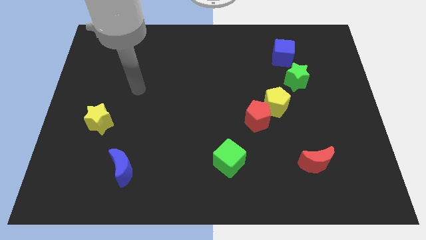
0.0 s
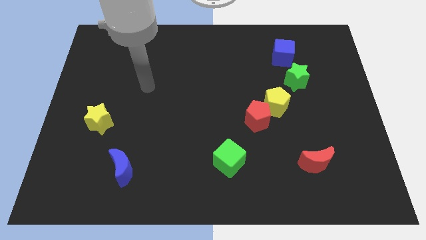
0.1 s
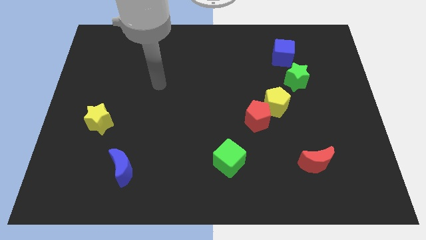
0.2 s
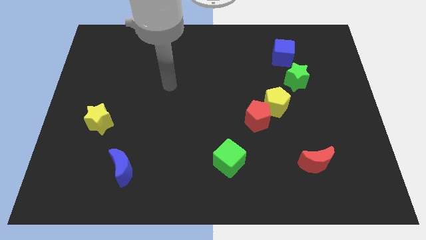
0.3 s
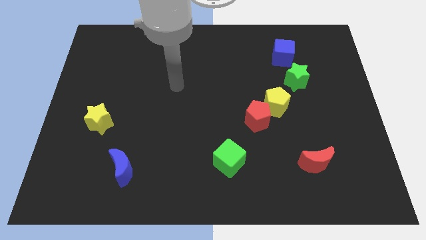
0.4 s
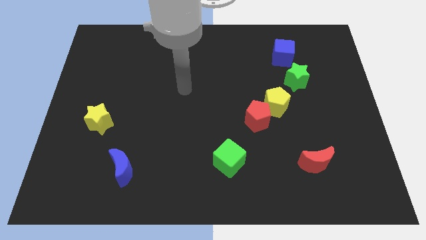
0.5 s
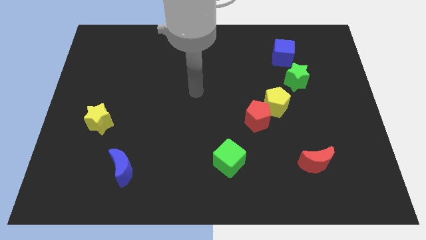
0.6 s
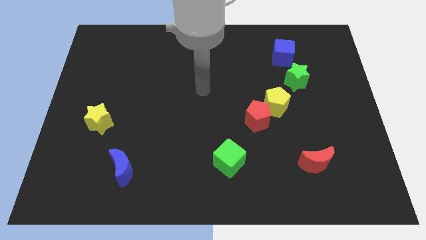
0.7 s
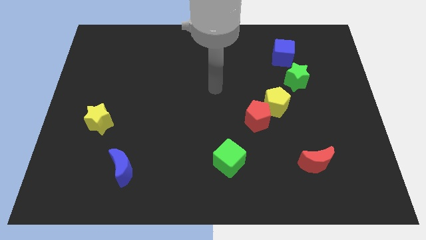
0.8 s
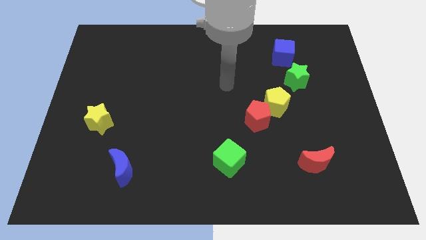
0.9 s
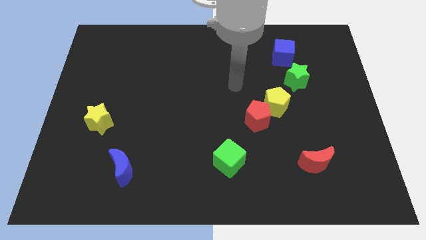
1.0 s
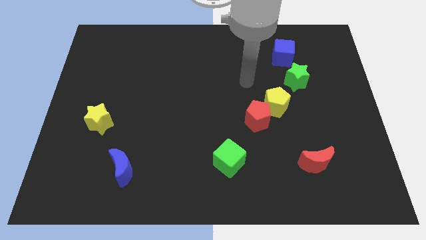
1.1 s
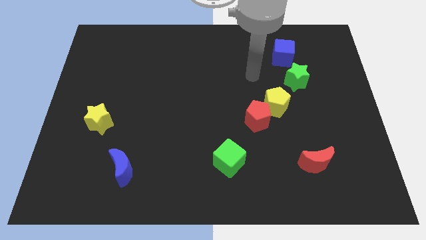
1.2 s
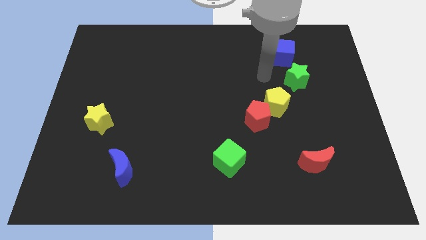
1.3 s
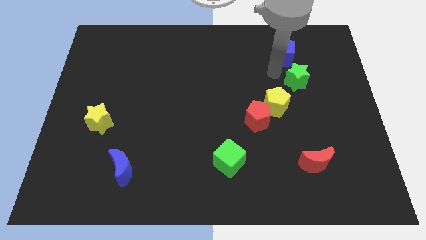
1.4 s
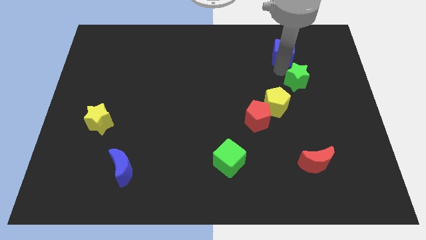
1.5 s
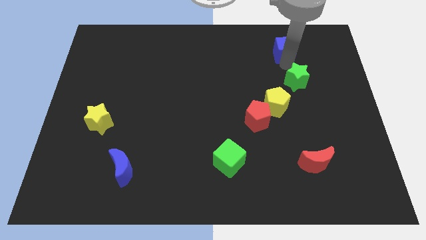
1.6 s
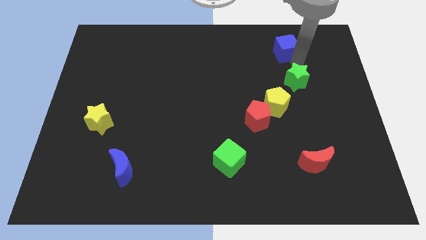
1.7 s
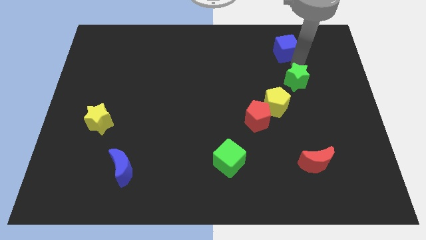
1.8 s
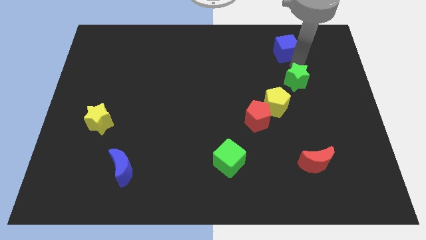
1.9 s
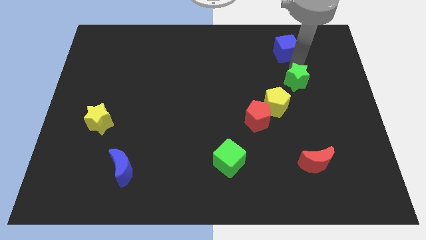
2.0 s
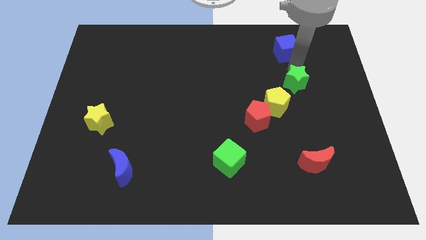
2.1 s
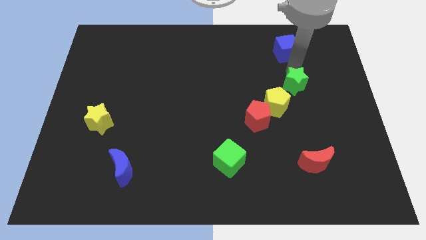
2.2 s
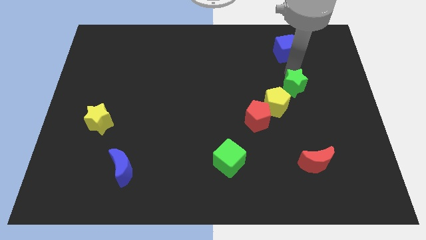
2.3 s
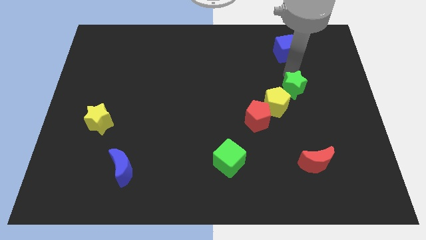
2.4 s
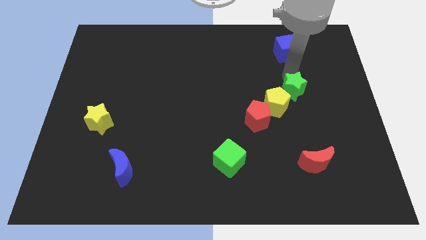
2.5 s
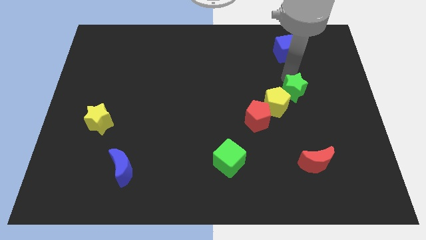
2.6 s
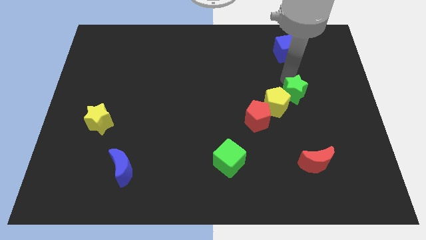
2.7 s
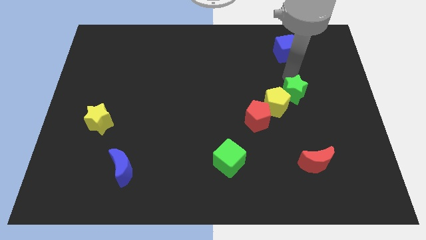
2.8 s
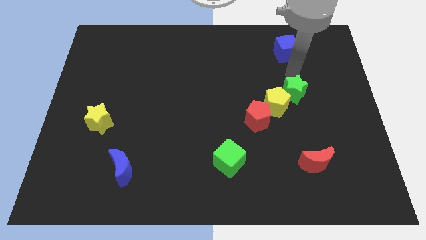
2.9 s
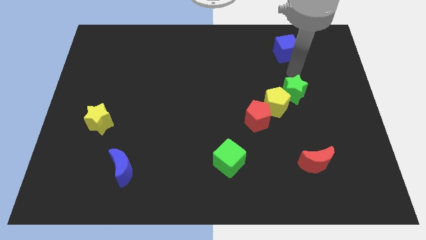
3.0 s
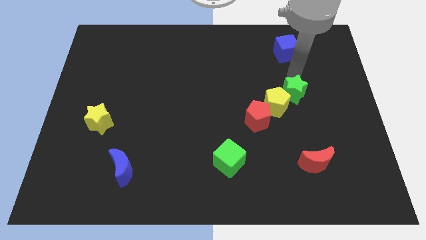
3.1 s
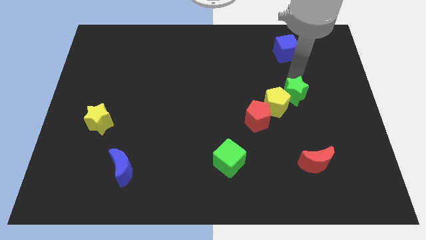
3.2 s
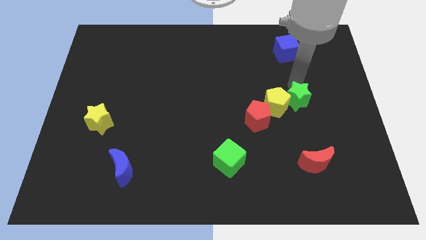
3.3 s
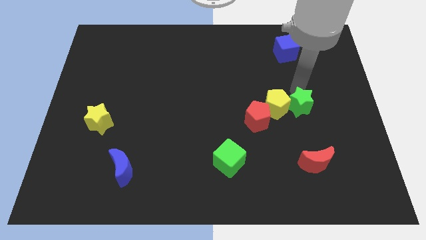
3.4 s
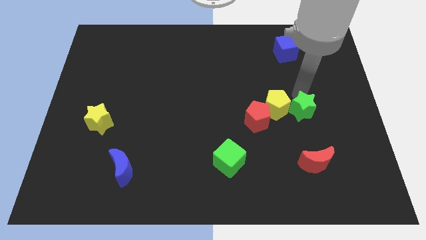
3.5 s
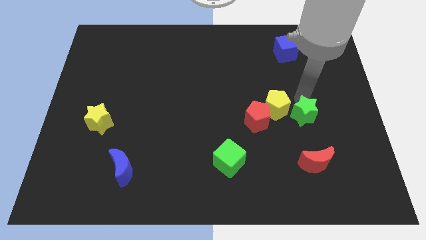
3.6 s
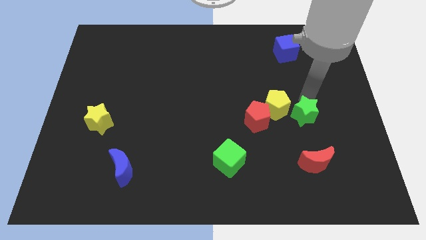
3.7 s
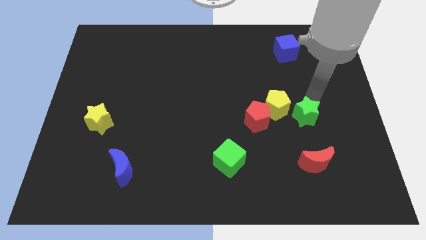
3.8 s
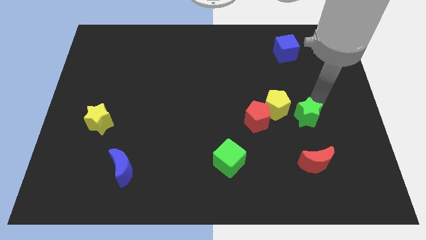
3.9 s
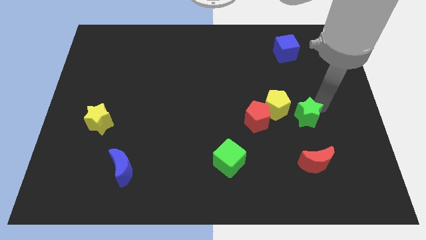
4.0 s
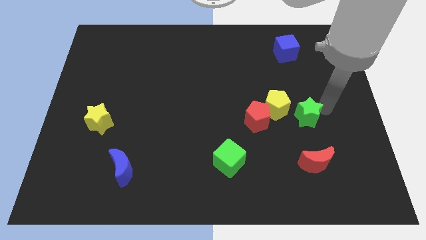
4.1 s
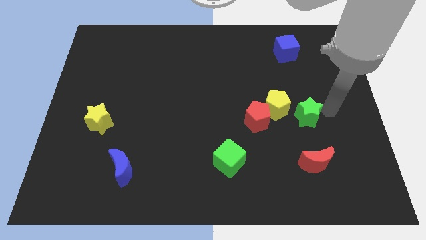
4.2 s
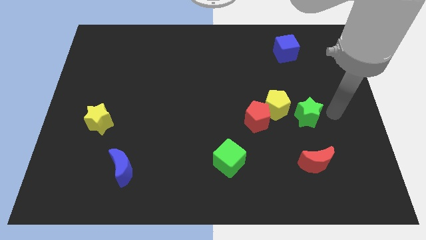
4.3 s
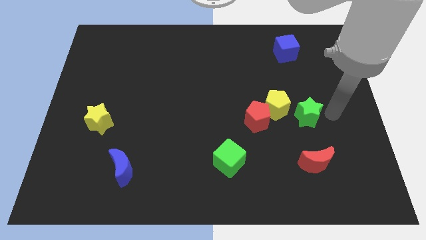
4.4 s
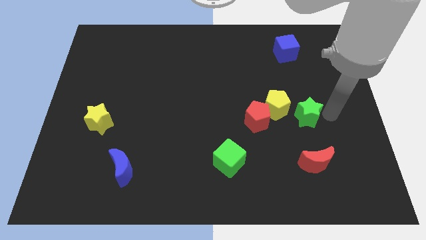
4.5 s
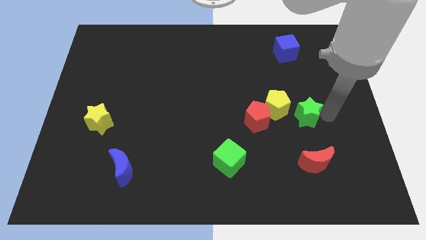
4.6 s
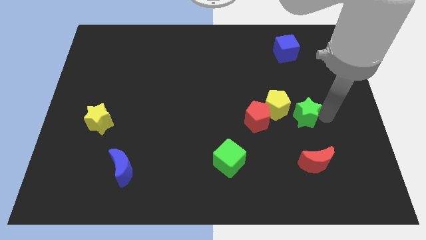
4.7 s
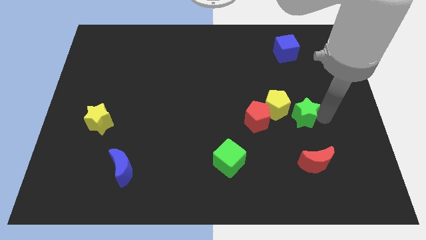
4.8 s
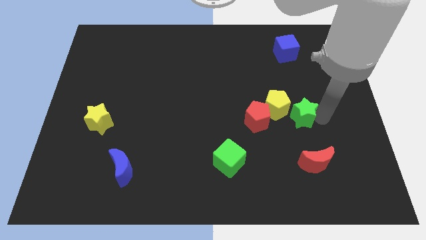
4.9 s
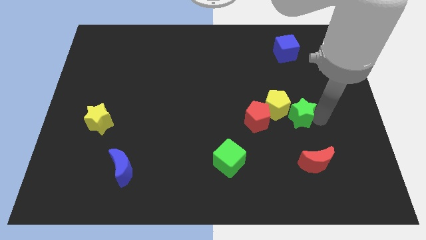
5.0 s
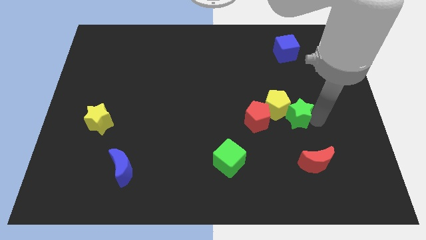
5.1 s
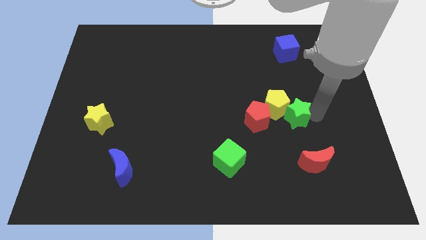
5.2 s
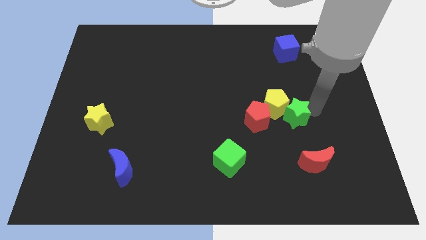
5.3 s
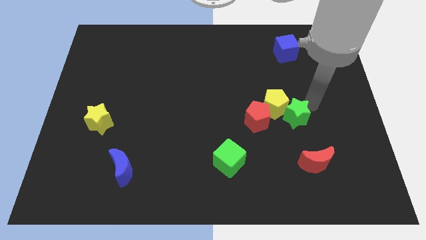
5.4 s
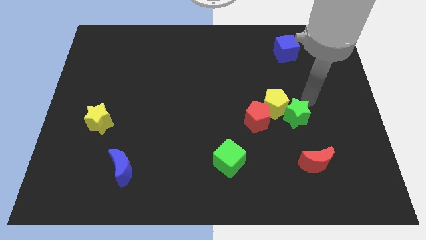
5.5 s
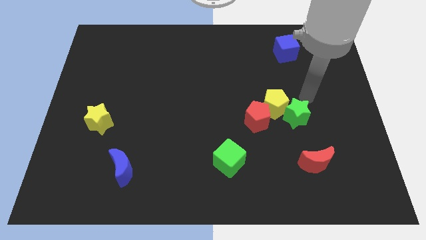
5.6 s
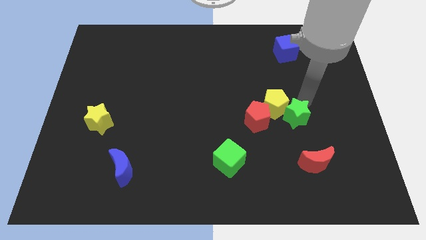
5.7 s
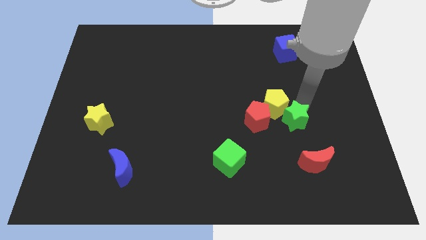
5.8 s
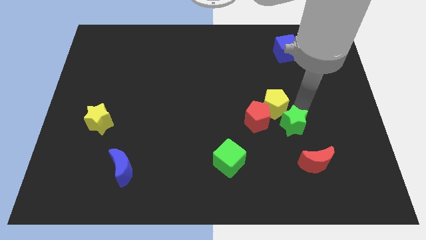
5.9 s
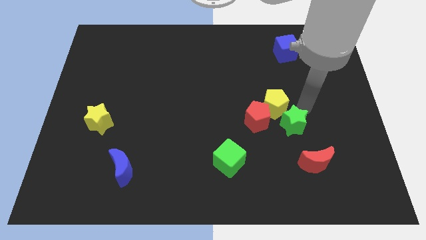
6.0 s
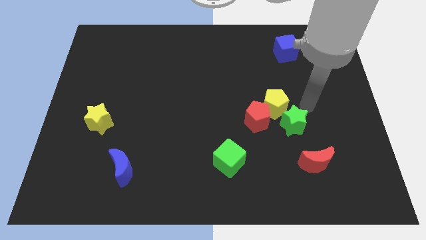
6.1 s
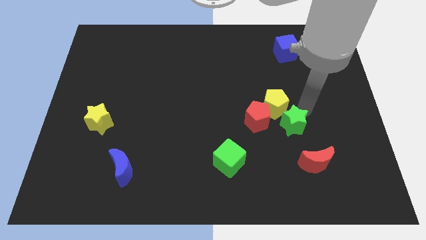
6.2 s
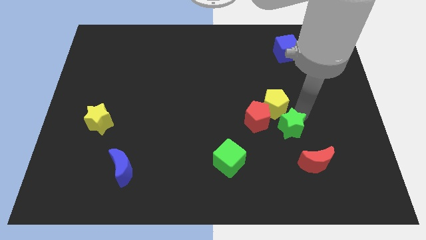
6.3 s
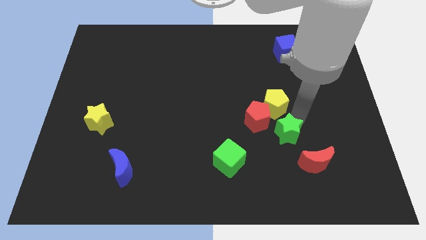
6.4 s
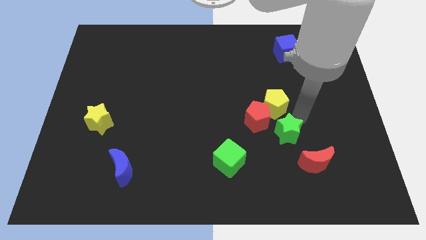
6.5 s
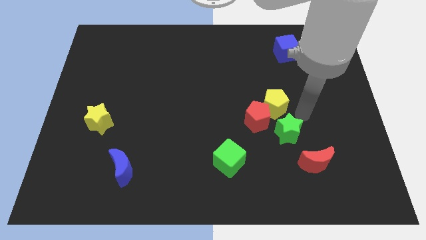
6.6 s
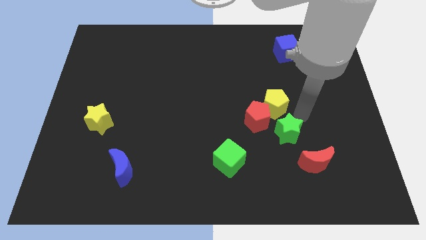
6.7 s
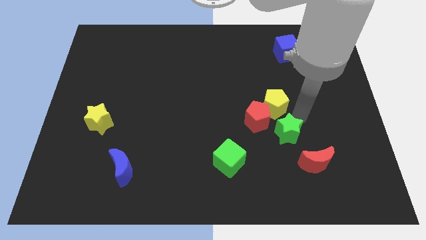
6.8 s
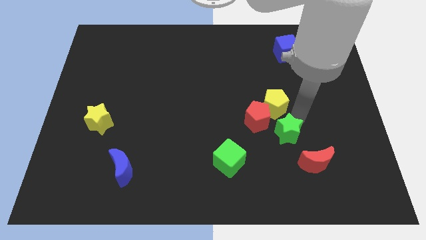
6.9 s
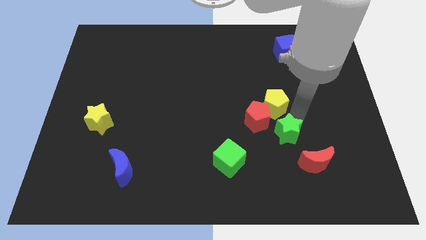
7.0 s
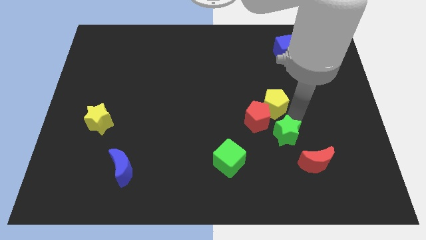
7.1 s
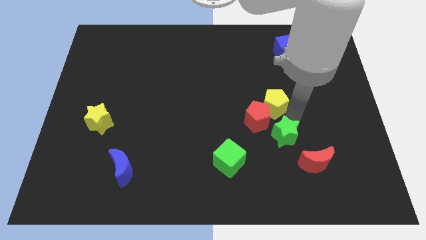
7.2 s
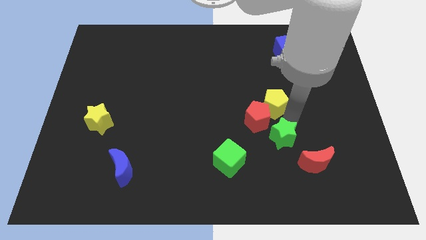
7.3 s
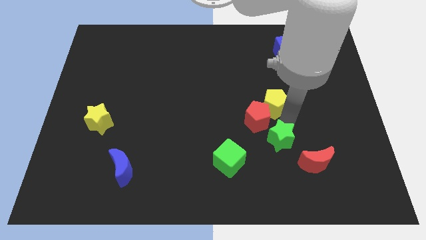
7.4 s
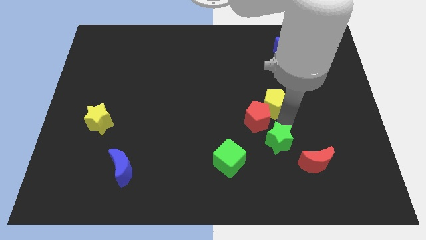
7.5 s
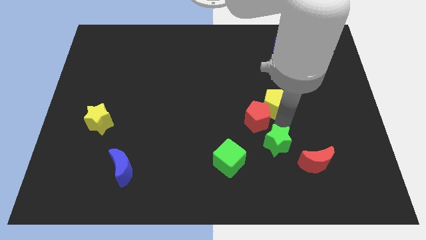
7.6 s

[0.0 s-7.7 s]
put the green star left of the red moon
